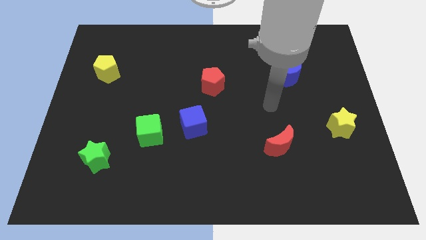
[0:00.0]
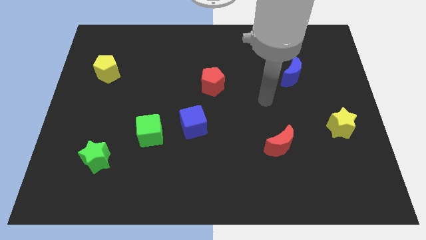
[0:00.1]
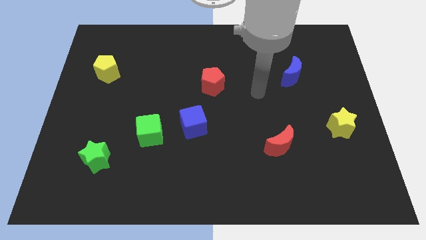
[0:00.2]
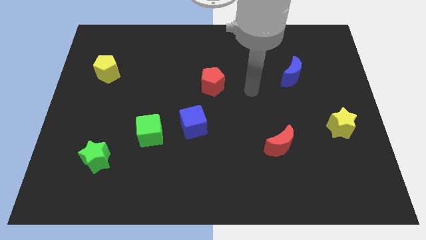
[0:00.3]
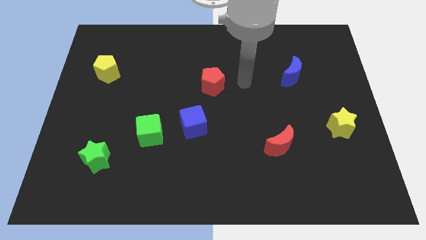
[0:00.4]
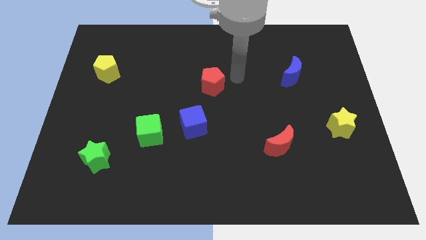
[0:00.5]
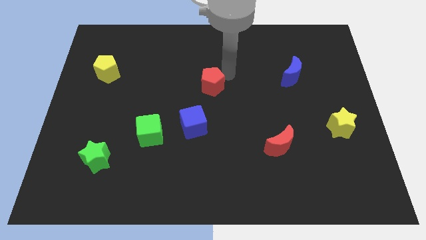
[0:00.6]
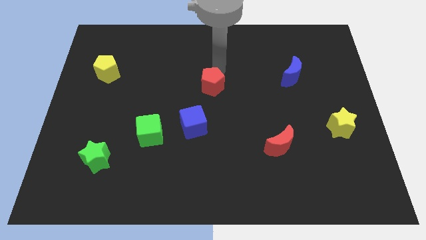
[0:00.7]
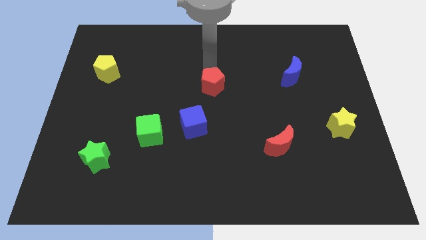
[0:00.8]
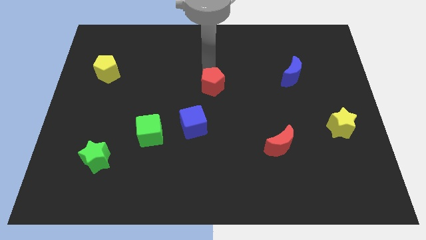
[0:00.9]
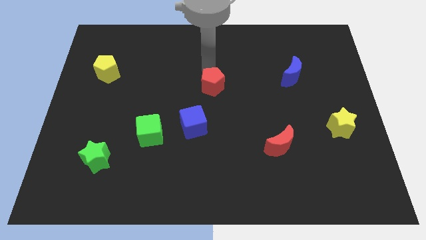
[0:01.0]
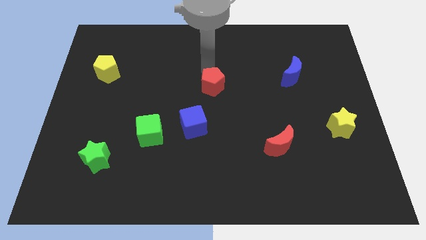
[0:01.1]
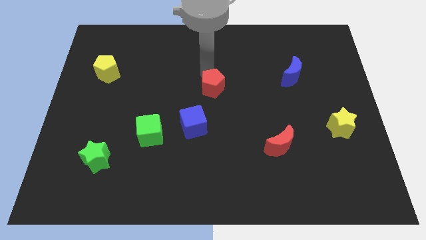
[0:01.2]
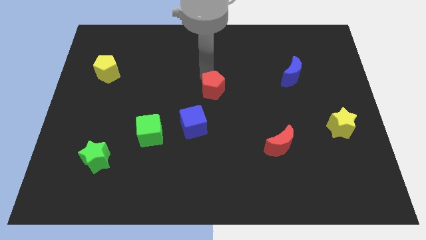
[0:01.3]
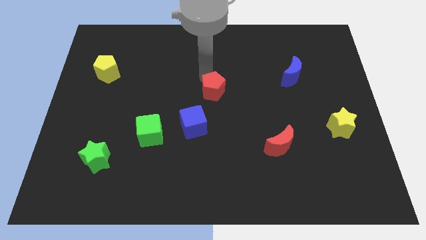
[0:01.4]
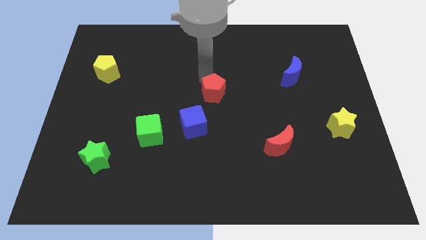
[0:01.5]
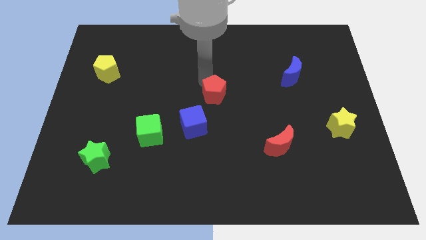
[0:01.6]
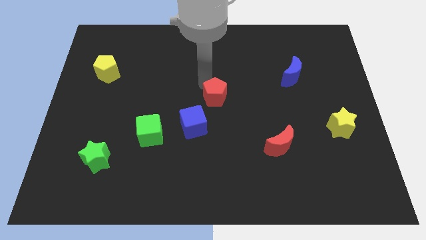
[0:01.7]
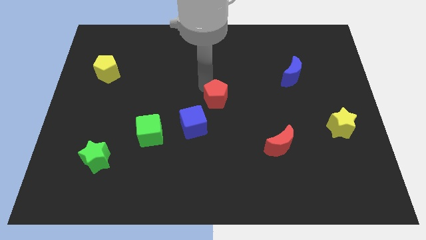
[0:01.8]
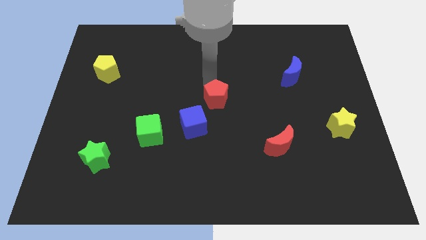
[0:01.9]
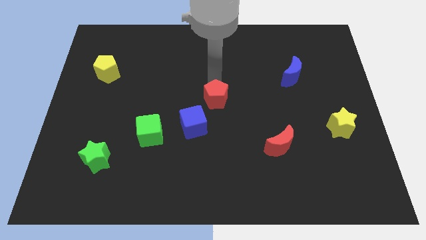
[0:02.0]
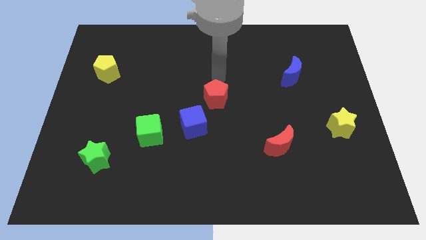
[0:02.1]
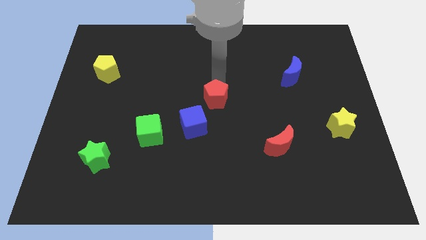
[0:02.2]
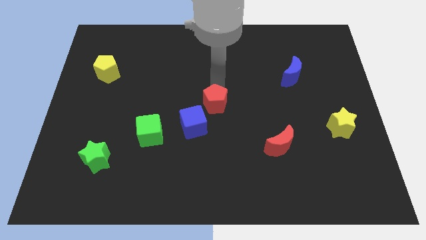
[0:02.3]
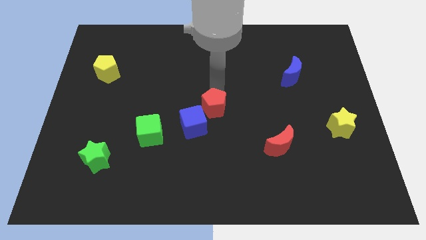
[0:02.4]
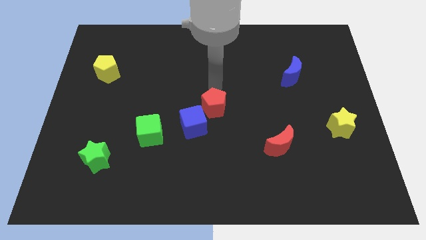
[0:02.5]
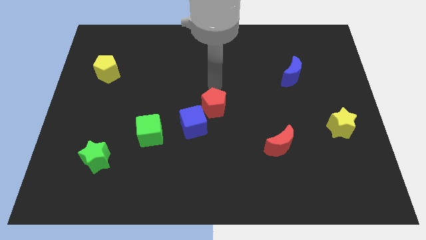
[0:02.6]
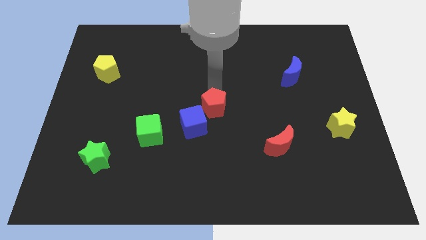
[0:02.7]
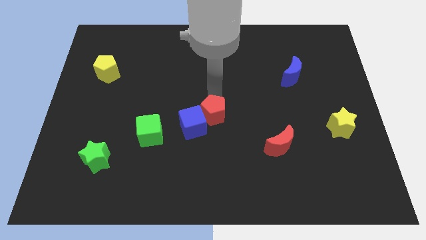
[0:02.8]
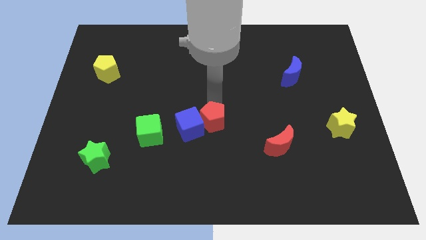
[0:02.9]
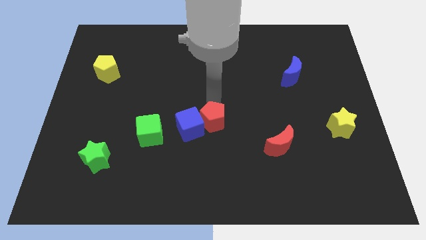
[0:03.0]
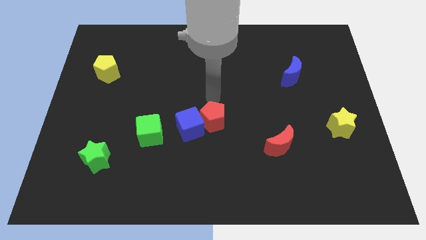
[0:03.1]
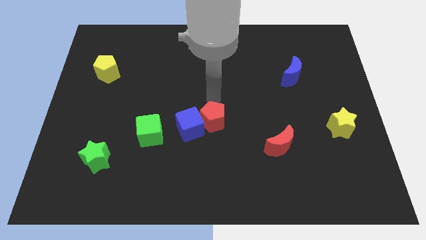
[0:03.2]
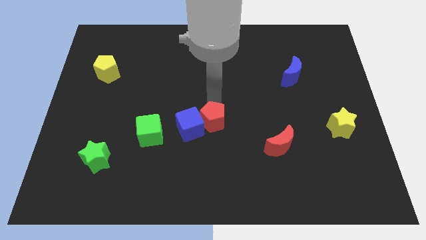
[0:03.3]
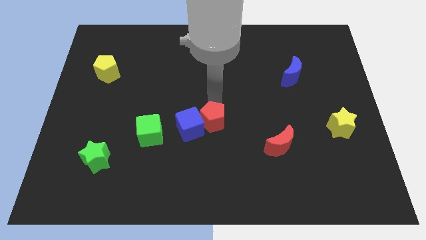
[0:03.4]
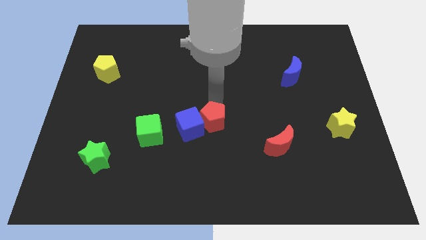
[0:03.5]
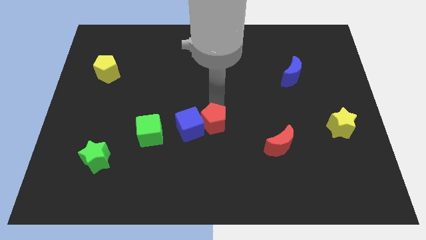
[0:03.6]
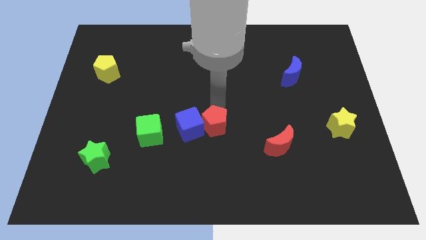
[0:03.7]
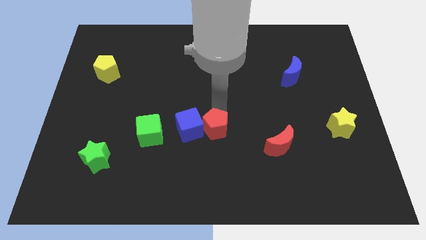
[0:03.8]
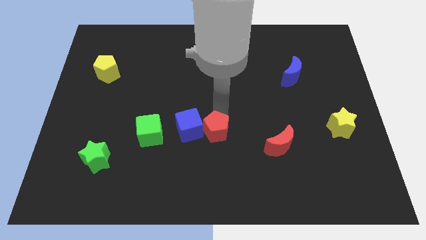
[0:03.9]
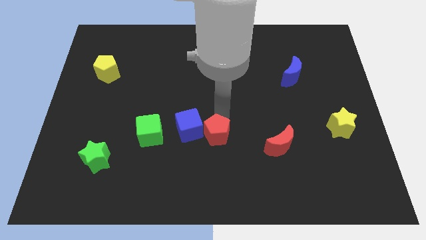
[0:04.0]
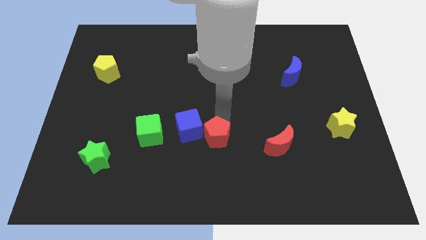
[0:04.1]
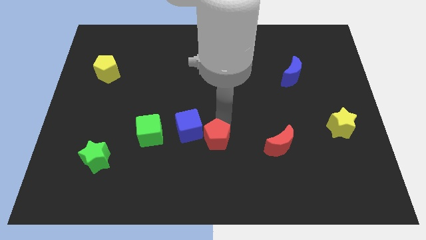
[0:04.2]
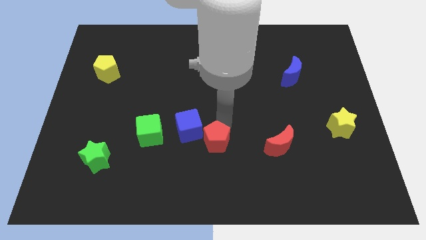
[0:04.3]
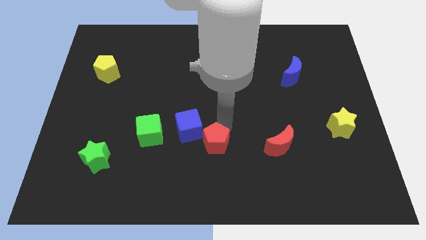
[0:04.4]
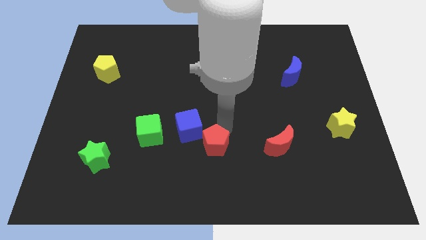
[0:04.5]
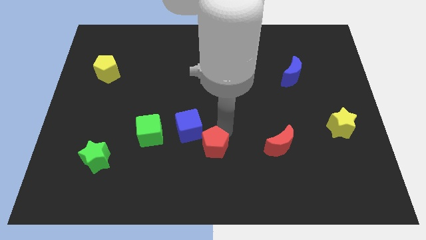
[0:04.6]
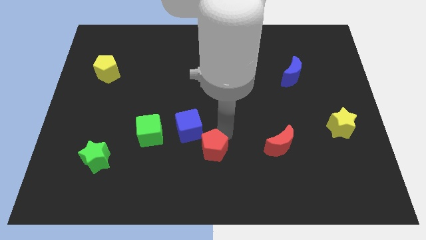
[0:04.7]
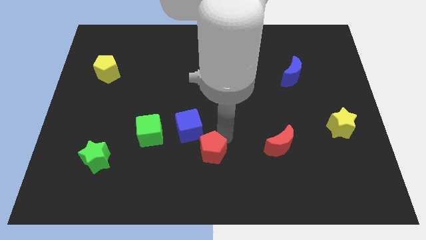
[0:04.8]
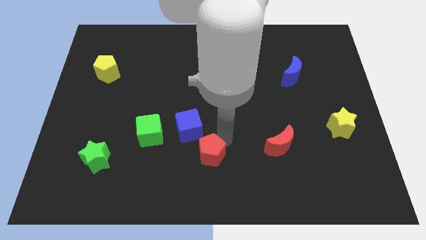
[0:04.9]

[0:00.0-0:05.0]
move the red pentagon to the bottom side

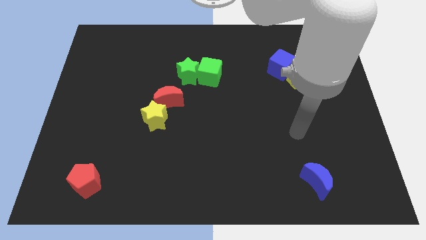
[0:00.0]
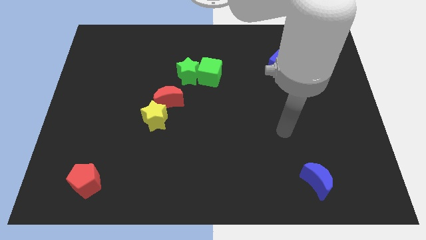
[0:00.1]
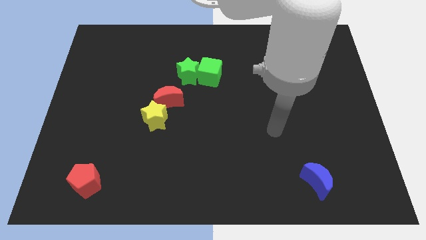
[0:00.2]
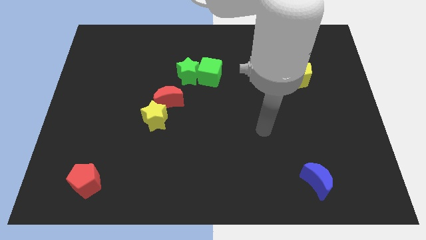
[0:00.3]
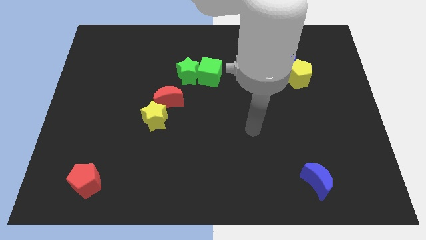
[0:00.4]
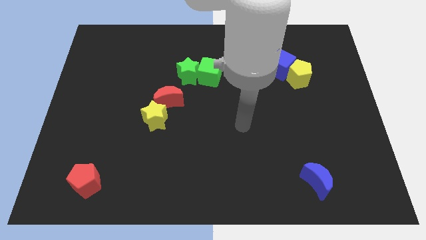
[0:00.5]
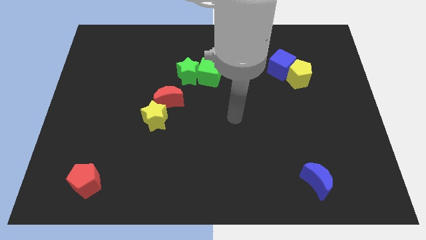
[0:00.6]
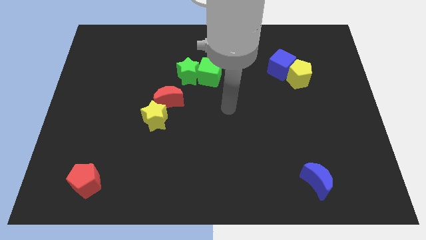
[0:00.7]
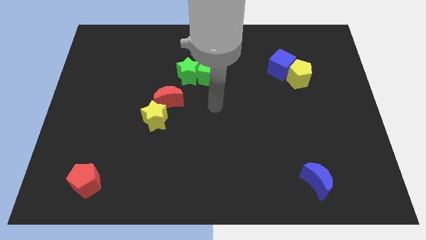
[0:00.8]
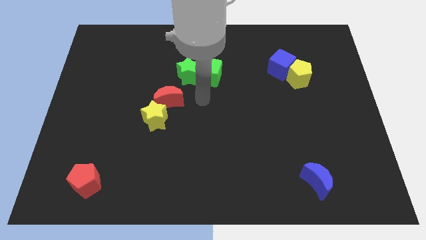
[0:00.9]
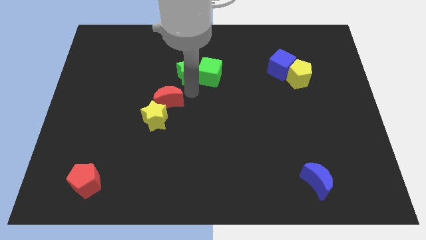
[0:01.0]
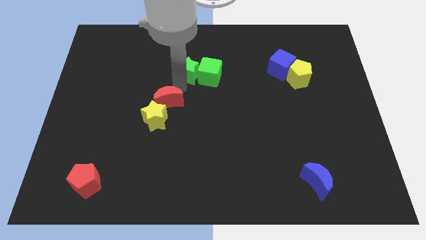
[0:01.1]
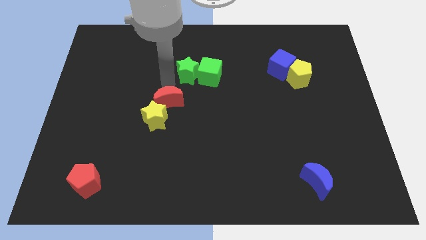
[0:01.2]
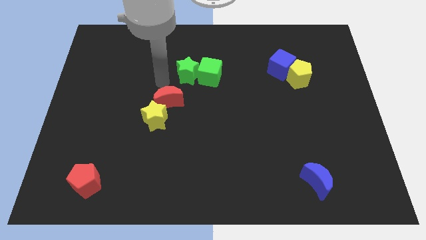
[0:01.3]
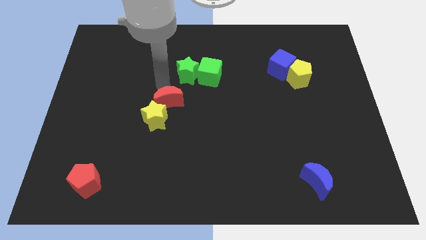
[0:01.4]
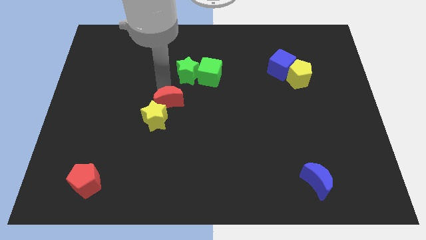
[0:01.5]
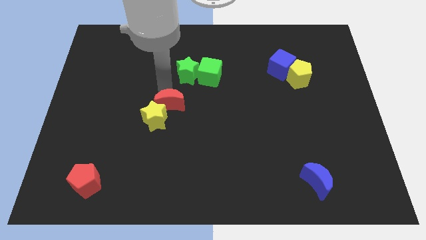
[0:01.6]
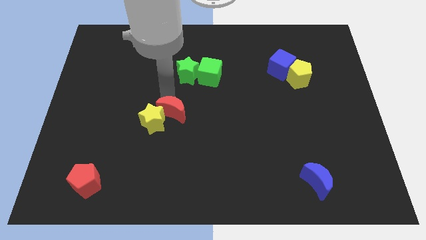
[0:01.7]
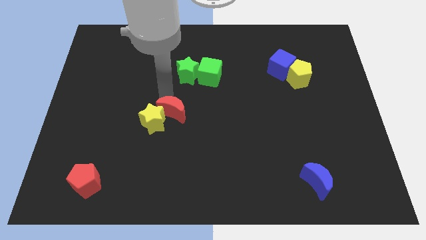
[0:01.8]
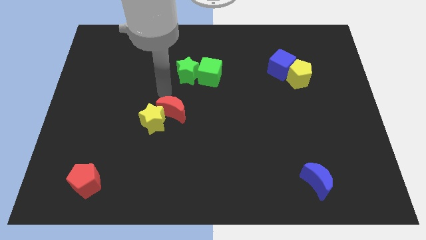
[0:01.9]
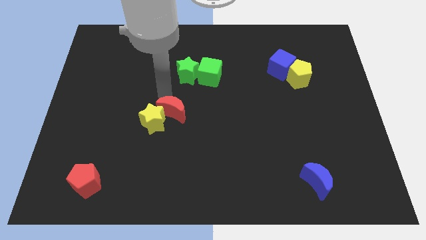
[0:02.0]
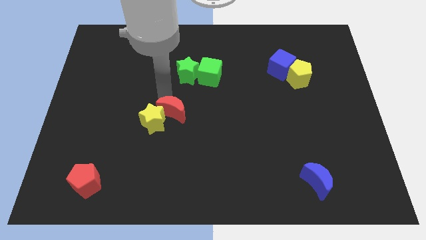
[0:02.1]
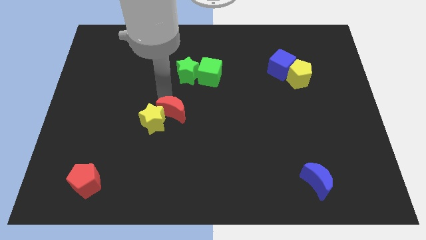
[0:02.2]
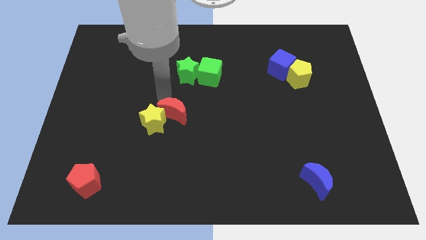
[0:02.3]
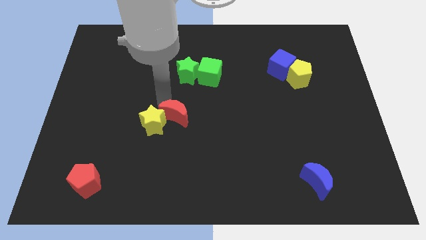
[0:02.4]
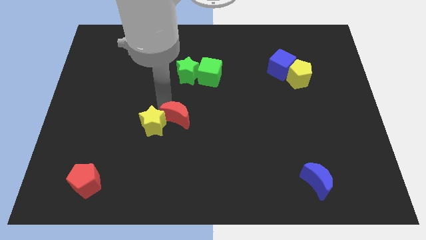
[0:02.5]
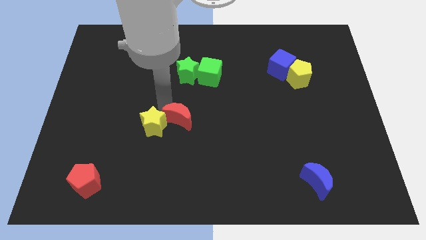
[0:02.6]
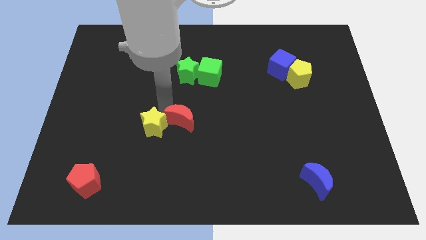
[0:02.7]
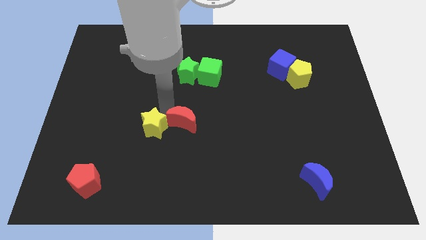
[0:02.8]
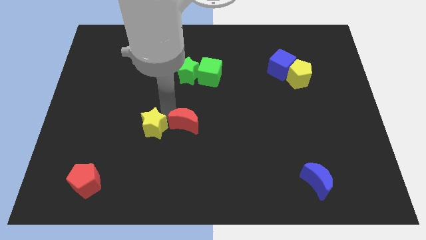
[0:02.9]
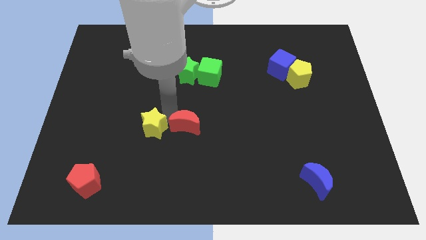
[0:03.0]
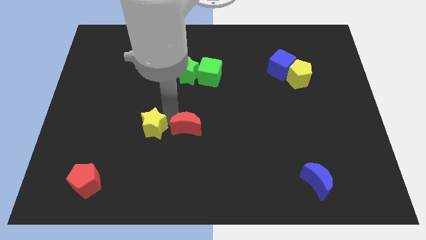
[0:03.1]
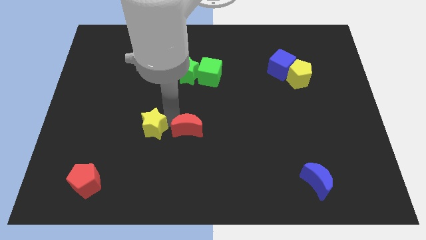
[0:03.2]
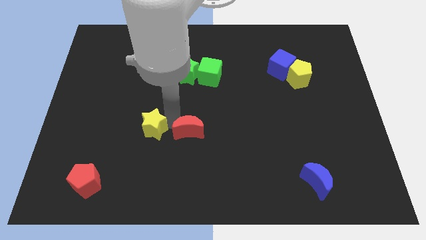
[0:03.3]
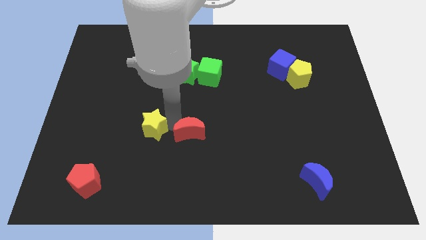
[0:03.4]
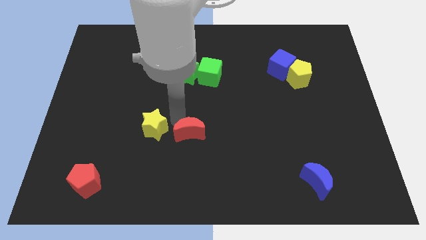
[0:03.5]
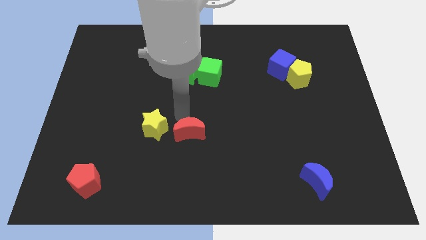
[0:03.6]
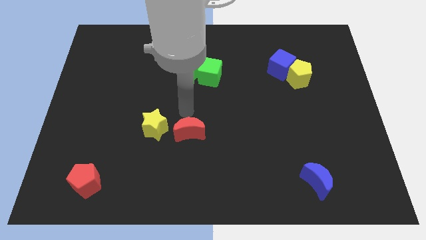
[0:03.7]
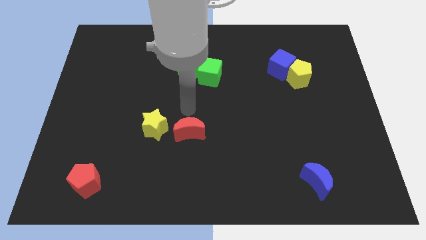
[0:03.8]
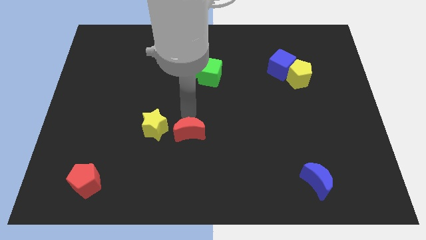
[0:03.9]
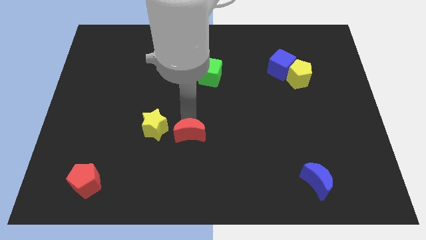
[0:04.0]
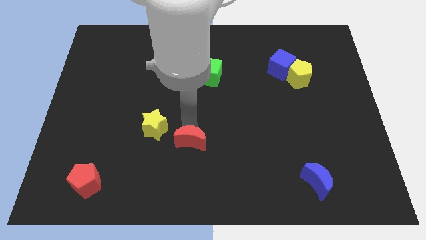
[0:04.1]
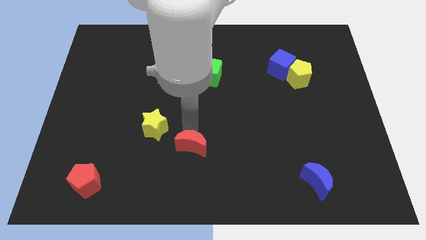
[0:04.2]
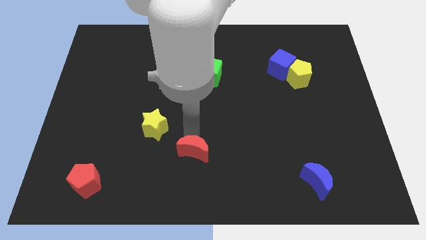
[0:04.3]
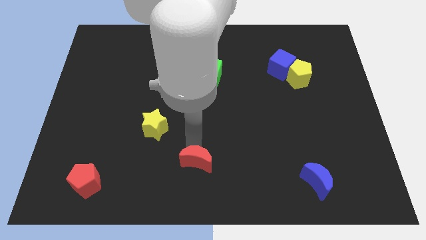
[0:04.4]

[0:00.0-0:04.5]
put the red moon to the bottom
